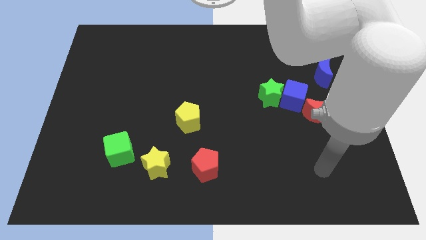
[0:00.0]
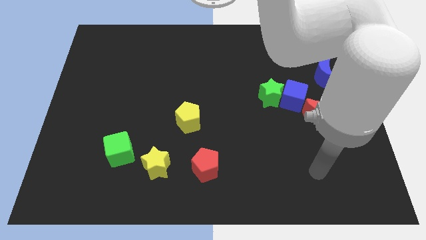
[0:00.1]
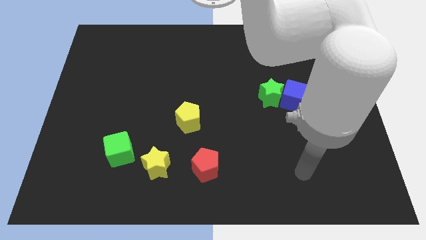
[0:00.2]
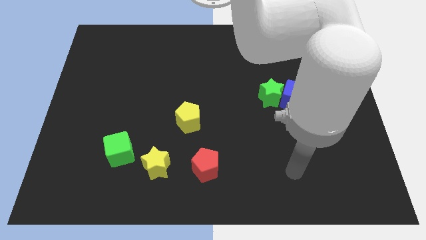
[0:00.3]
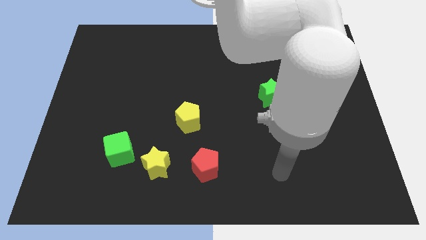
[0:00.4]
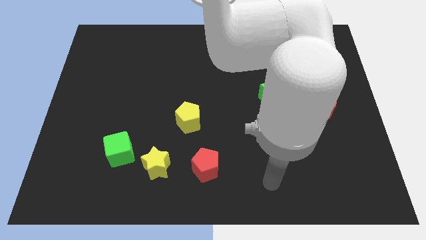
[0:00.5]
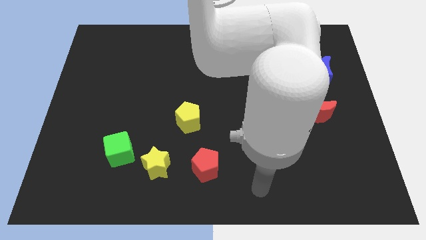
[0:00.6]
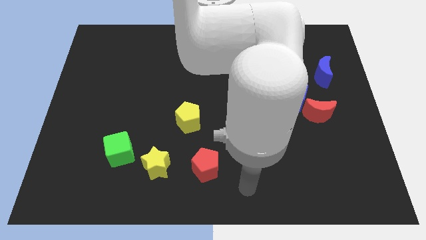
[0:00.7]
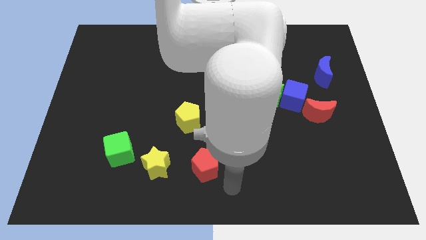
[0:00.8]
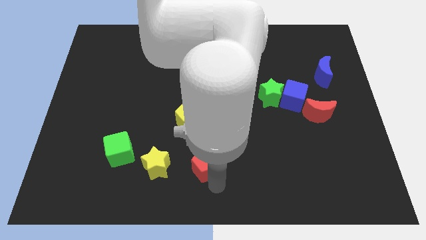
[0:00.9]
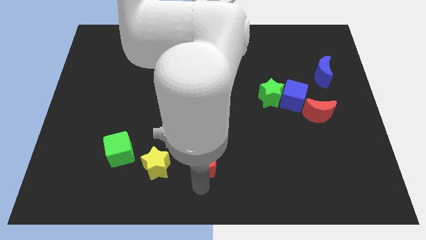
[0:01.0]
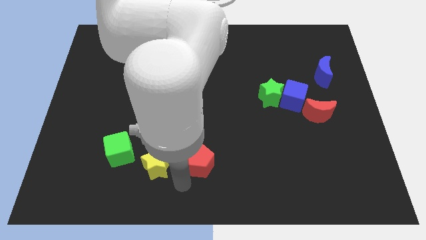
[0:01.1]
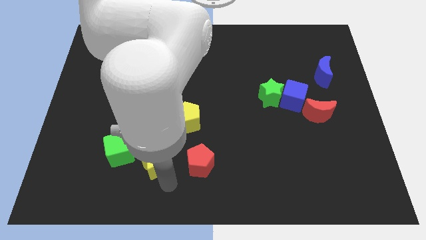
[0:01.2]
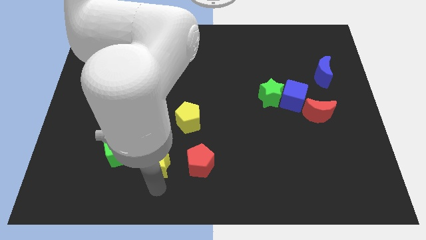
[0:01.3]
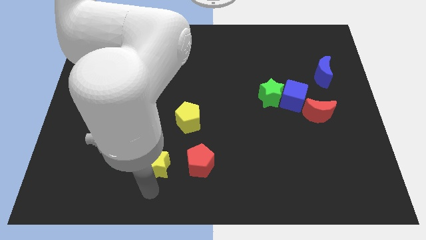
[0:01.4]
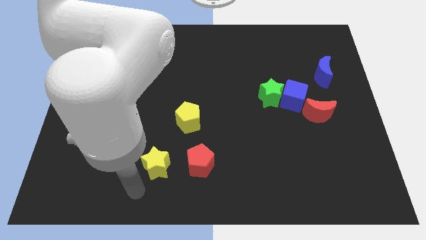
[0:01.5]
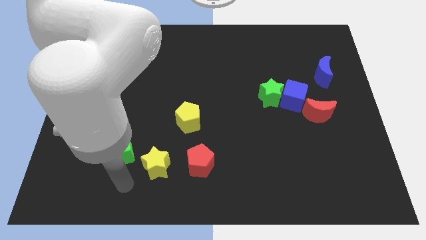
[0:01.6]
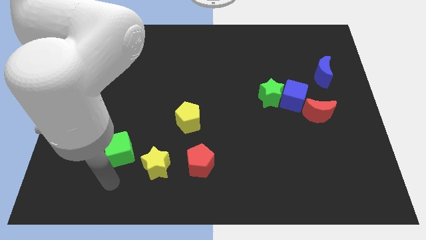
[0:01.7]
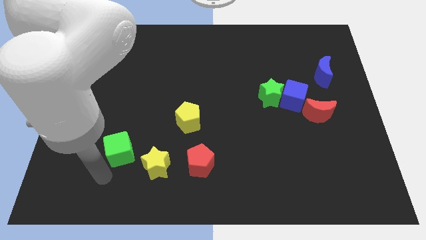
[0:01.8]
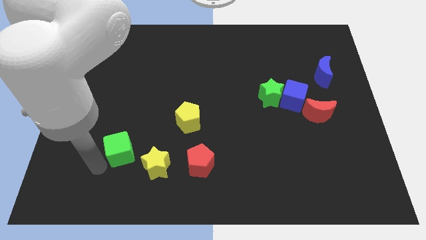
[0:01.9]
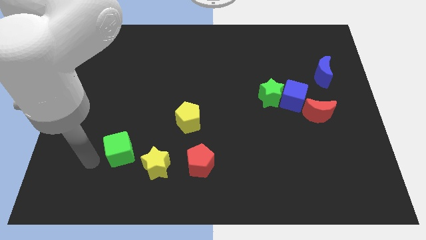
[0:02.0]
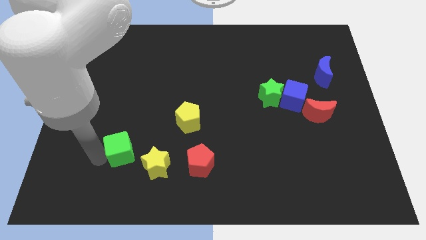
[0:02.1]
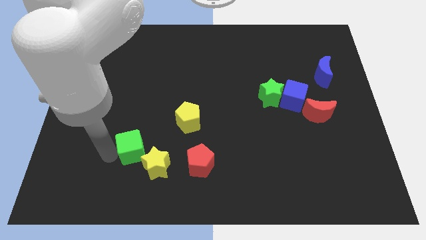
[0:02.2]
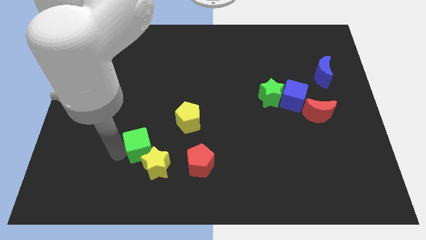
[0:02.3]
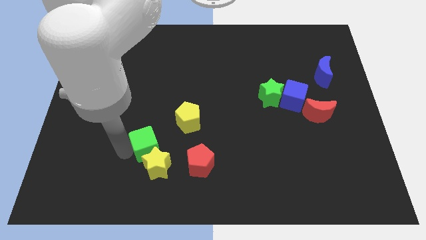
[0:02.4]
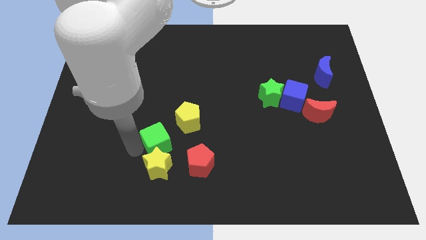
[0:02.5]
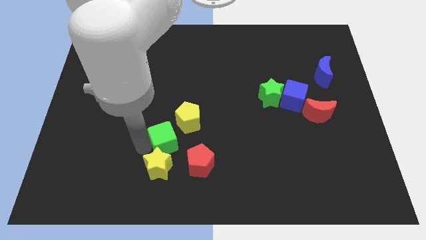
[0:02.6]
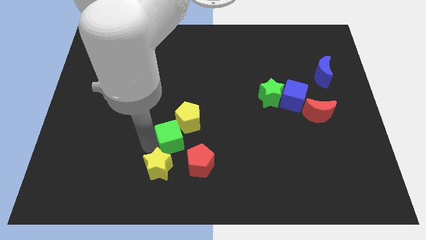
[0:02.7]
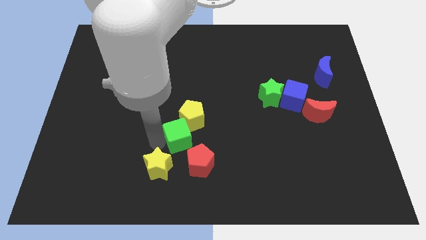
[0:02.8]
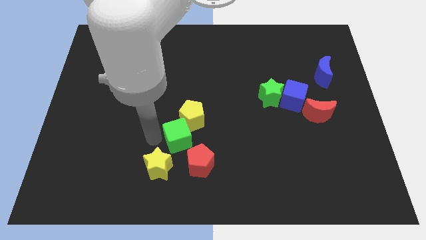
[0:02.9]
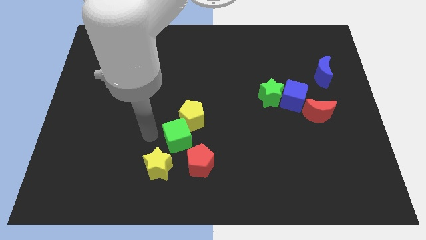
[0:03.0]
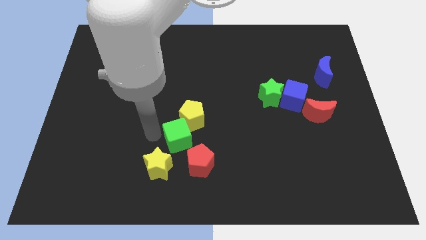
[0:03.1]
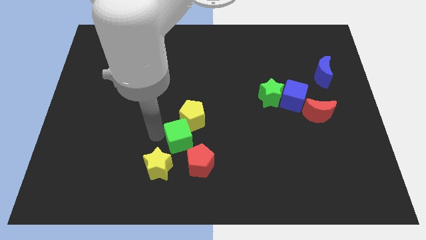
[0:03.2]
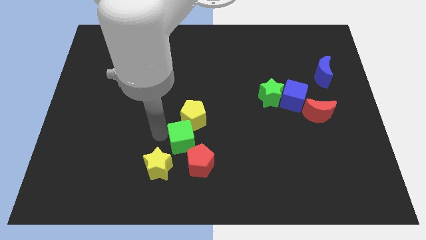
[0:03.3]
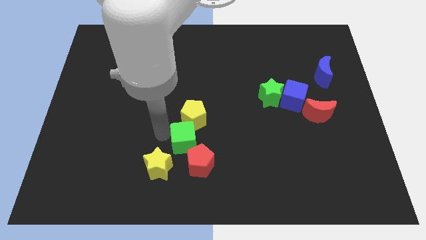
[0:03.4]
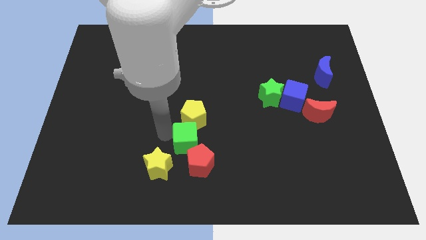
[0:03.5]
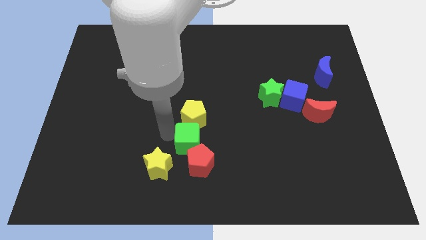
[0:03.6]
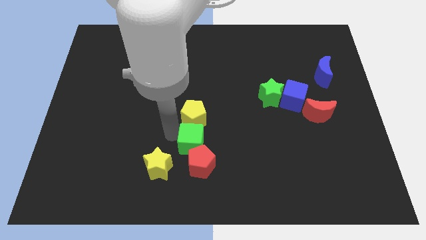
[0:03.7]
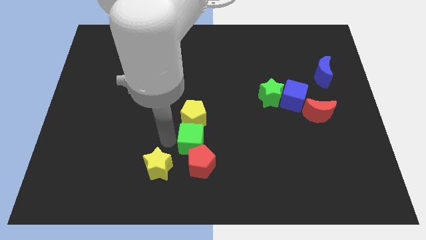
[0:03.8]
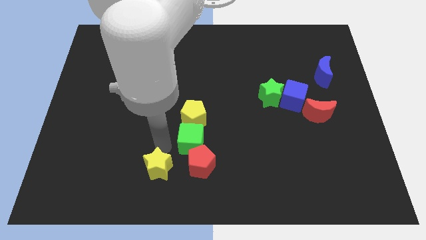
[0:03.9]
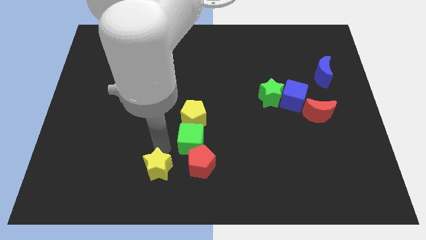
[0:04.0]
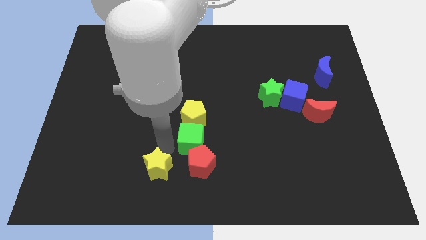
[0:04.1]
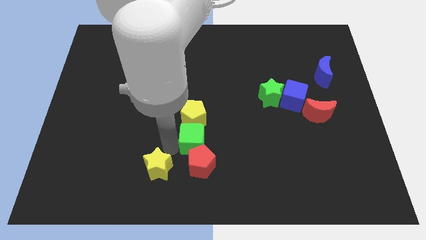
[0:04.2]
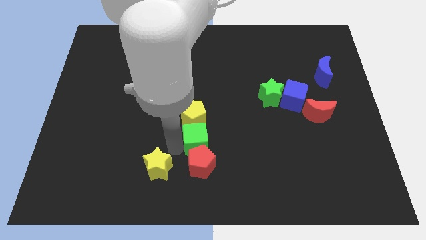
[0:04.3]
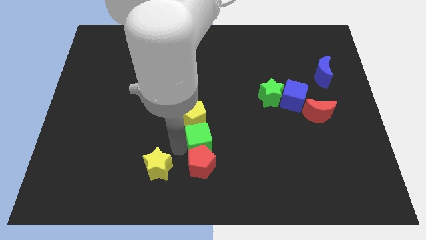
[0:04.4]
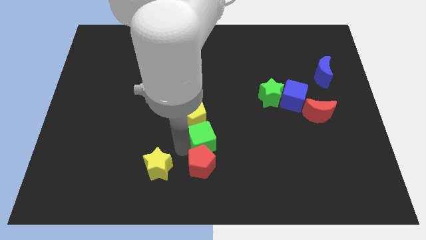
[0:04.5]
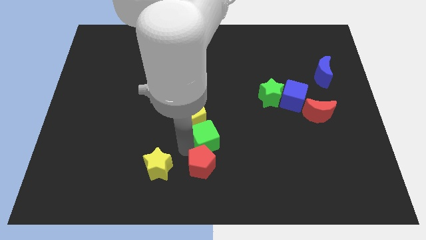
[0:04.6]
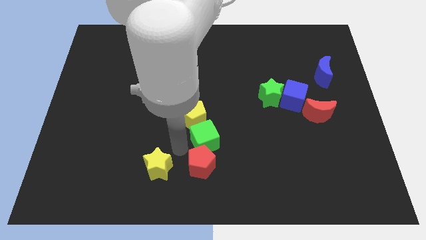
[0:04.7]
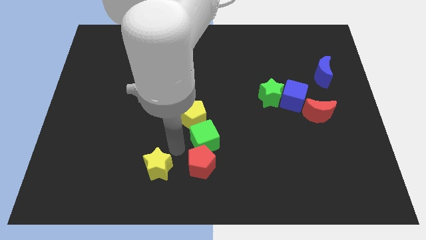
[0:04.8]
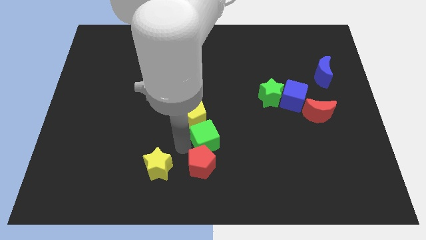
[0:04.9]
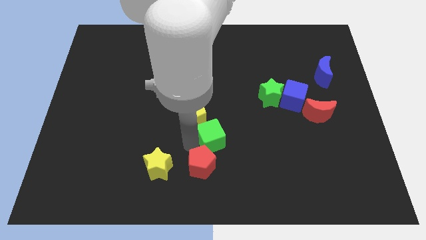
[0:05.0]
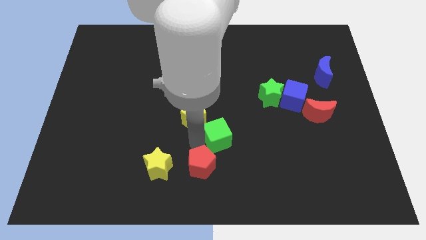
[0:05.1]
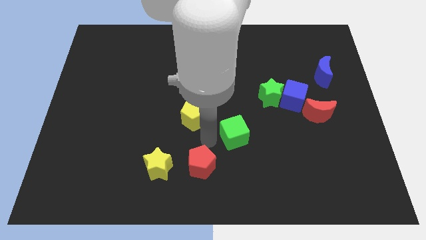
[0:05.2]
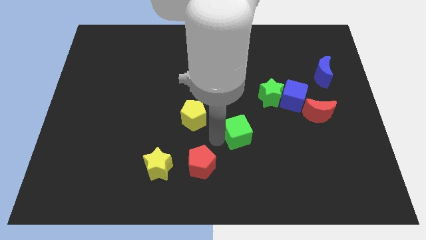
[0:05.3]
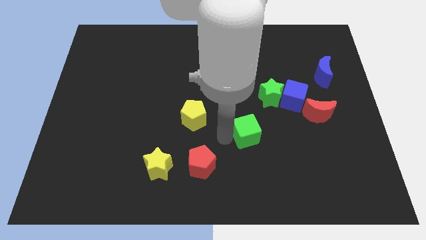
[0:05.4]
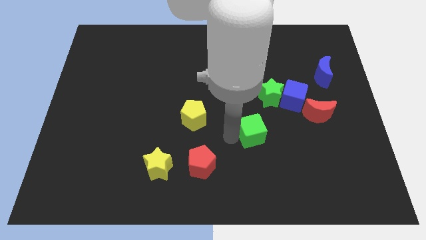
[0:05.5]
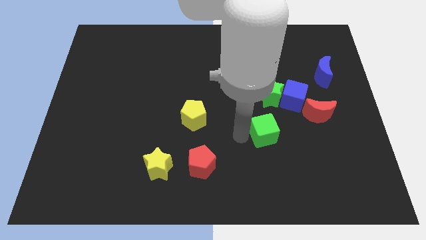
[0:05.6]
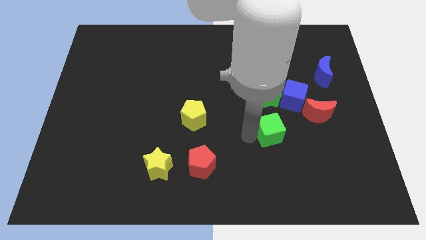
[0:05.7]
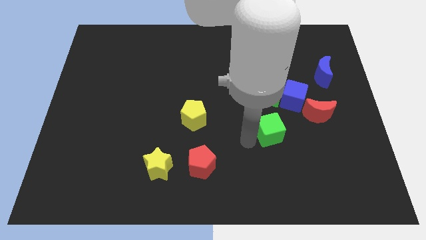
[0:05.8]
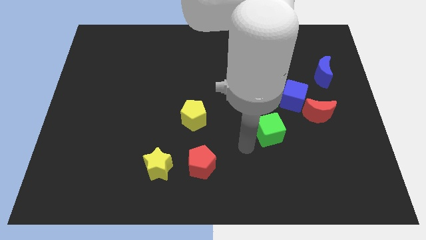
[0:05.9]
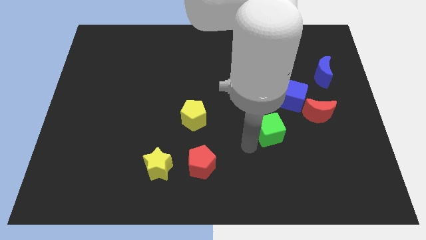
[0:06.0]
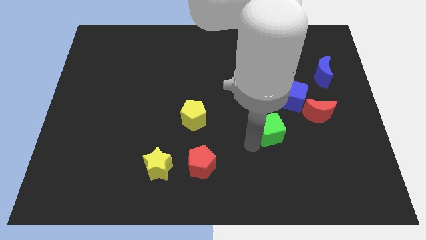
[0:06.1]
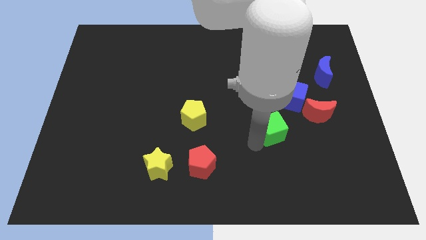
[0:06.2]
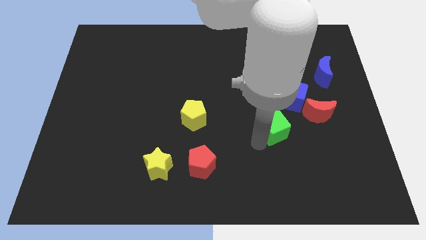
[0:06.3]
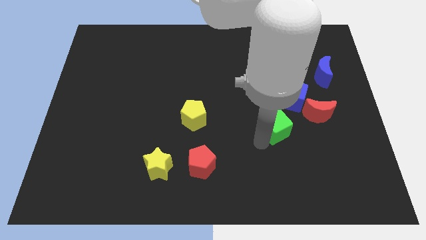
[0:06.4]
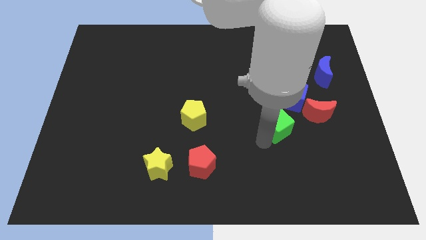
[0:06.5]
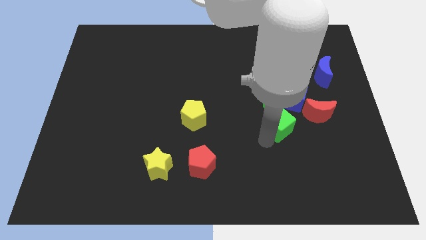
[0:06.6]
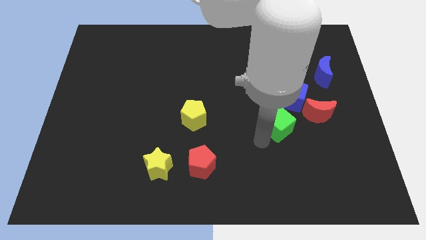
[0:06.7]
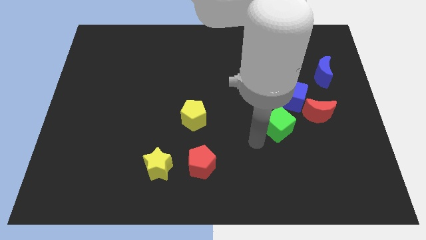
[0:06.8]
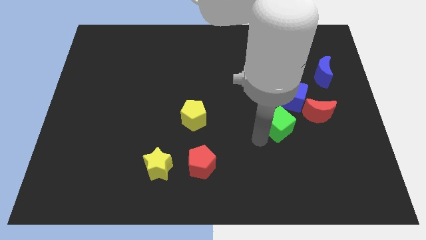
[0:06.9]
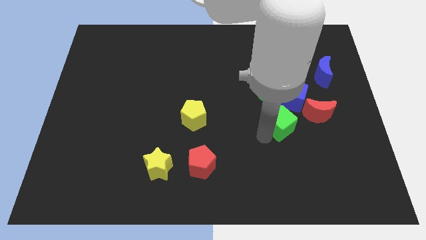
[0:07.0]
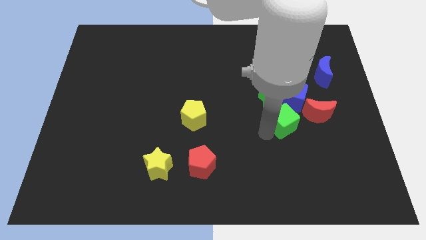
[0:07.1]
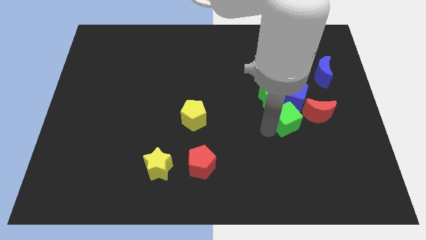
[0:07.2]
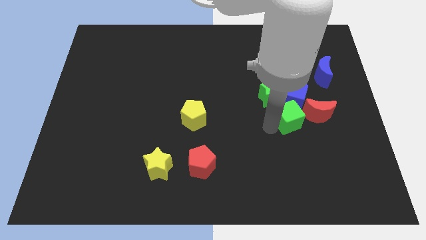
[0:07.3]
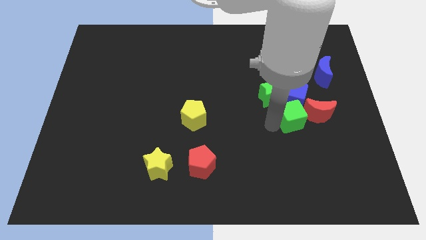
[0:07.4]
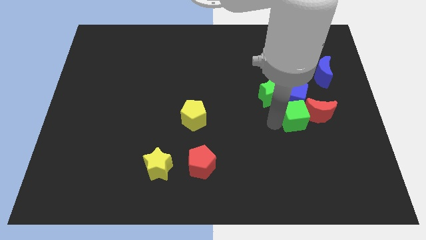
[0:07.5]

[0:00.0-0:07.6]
move the green cube towards the red moon
